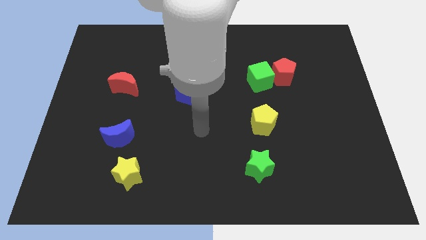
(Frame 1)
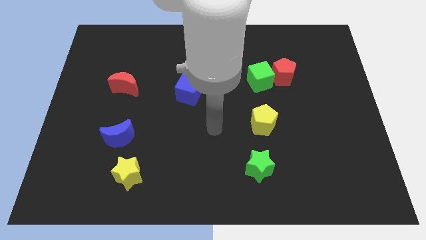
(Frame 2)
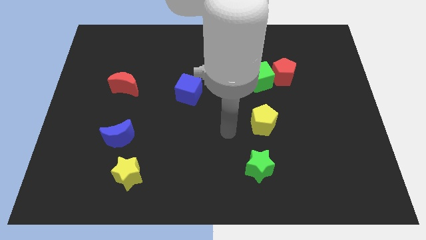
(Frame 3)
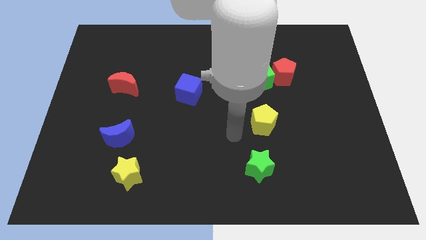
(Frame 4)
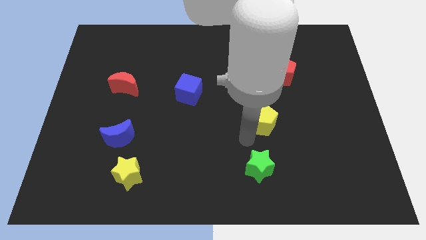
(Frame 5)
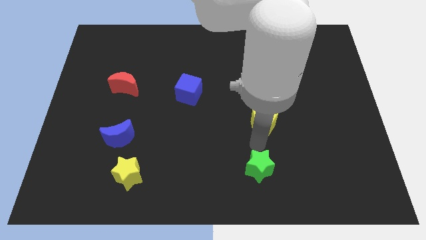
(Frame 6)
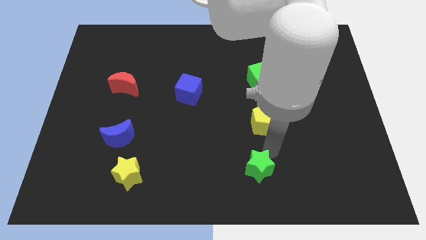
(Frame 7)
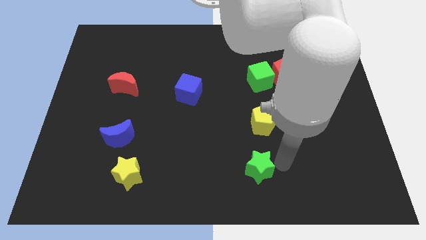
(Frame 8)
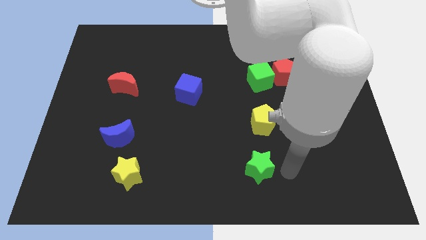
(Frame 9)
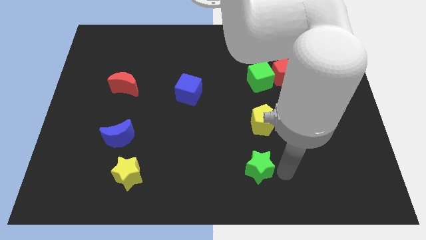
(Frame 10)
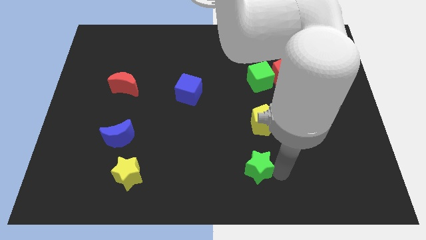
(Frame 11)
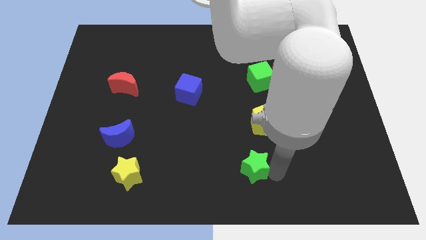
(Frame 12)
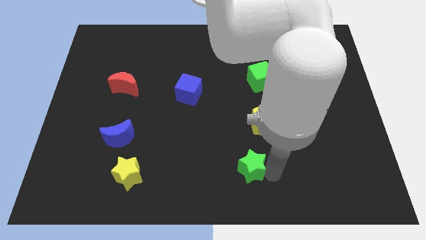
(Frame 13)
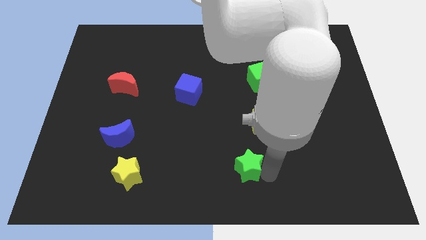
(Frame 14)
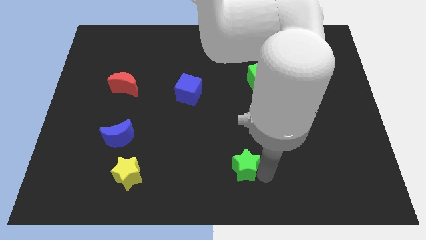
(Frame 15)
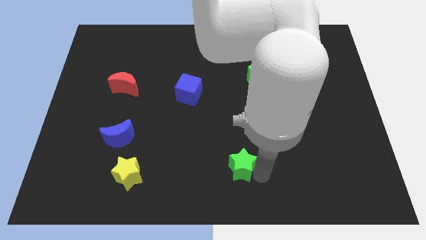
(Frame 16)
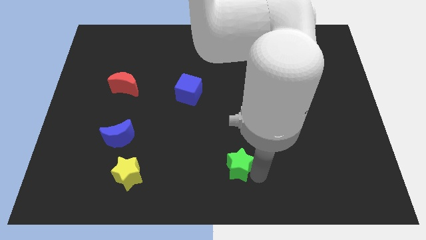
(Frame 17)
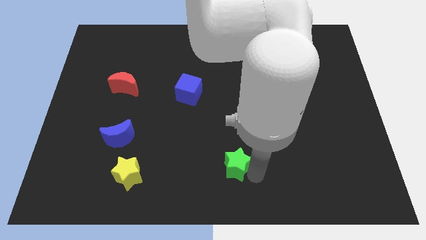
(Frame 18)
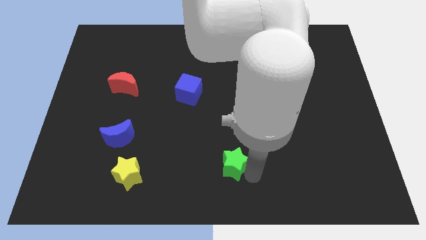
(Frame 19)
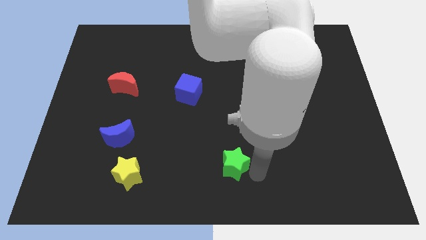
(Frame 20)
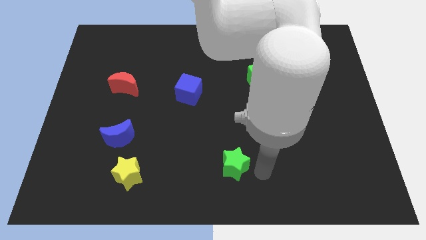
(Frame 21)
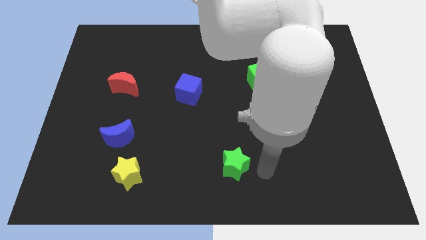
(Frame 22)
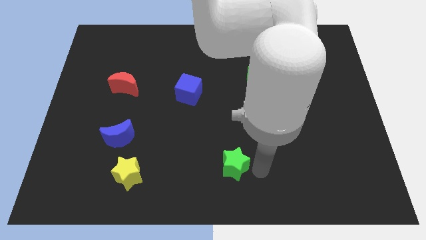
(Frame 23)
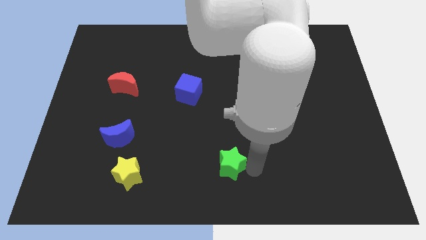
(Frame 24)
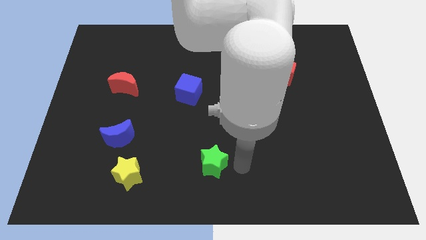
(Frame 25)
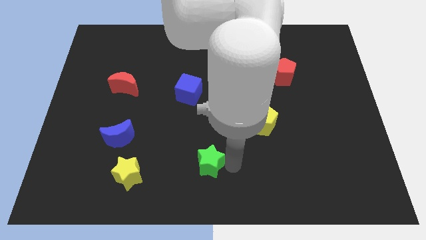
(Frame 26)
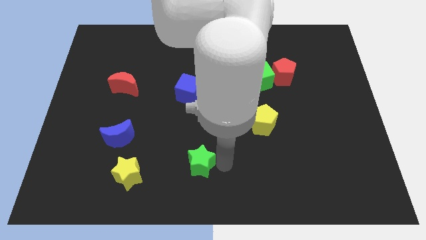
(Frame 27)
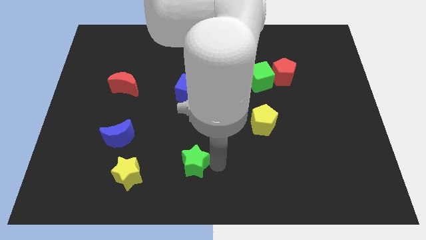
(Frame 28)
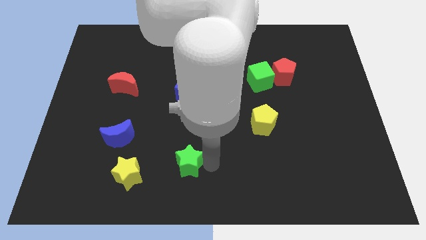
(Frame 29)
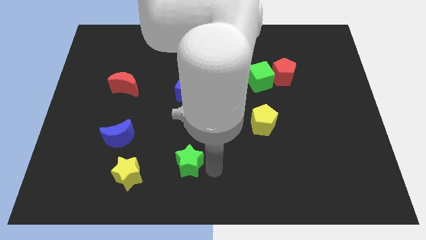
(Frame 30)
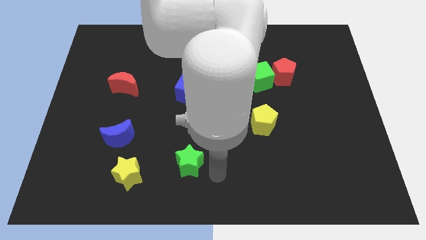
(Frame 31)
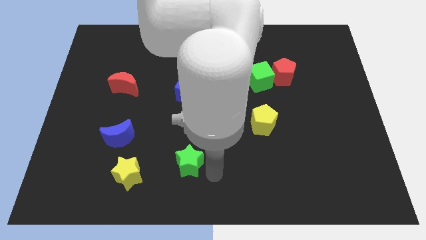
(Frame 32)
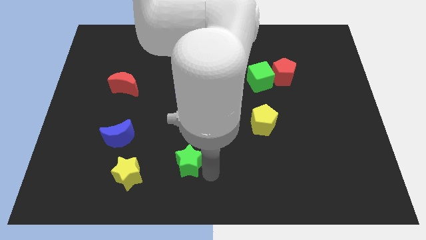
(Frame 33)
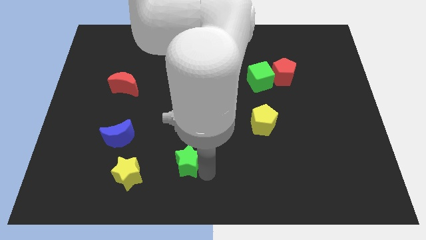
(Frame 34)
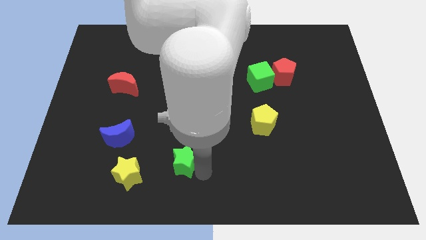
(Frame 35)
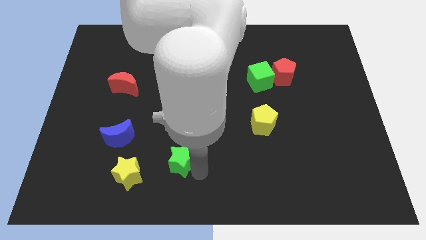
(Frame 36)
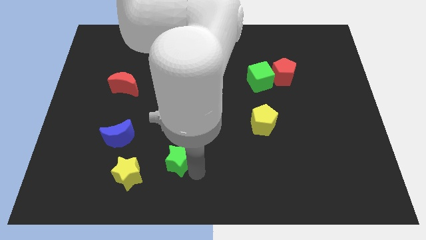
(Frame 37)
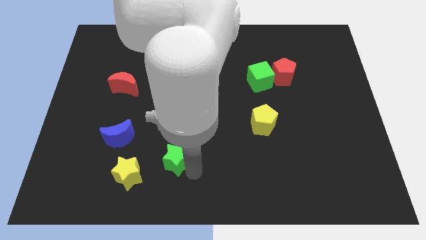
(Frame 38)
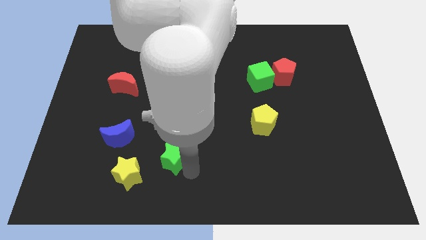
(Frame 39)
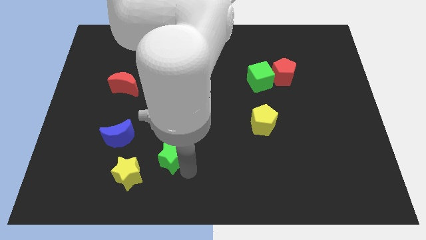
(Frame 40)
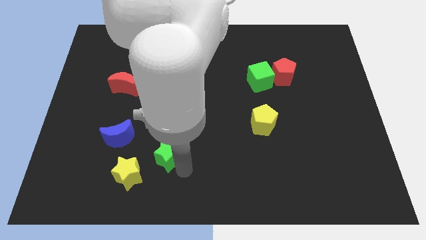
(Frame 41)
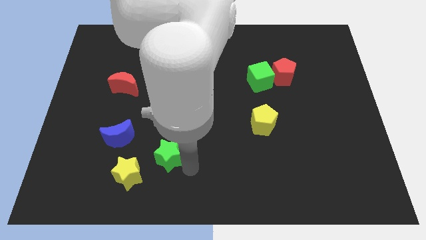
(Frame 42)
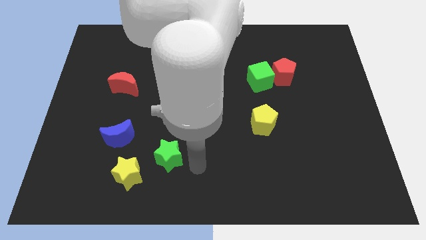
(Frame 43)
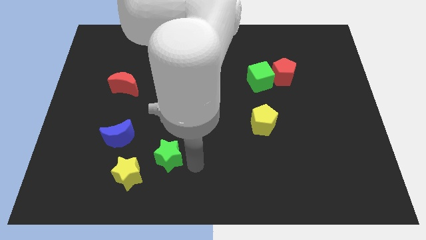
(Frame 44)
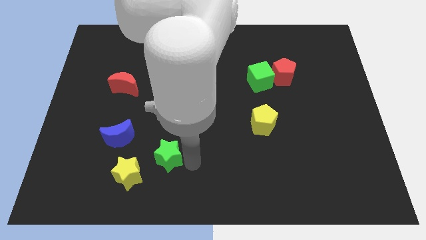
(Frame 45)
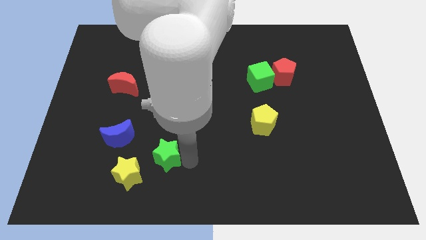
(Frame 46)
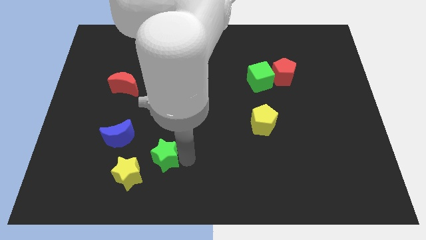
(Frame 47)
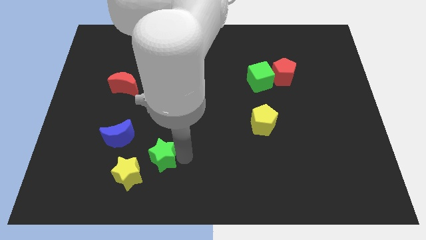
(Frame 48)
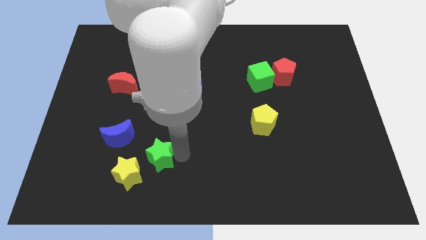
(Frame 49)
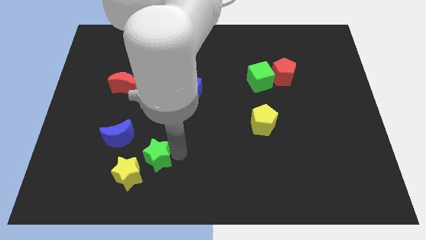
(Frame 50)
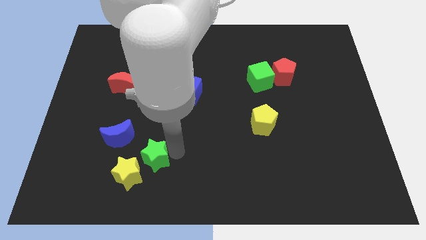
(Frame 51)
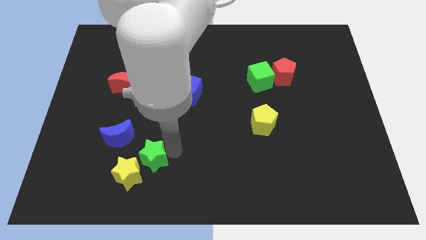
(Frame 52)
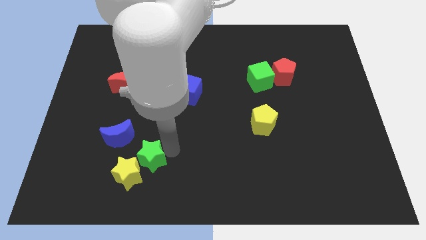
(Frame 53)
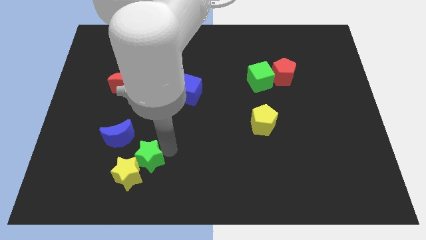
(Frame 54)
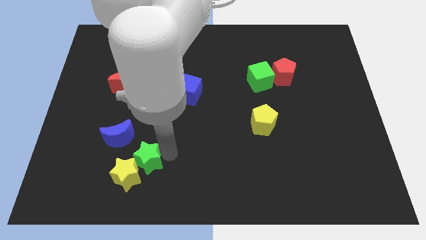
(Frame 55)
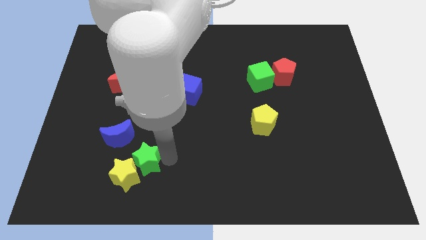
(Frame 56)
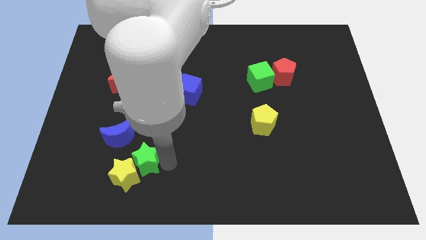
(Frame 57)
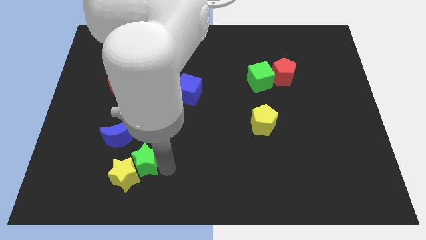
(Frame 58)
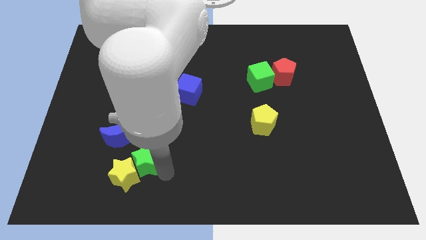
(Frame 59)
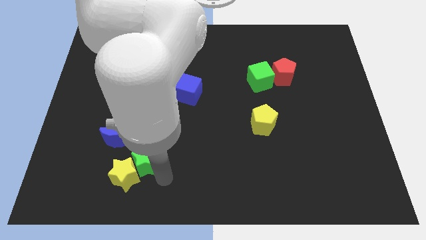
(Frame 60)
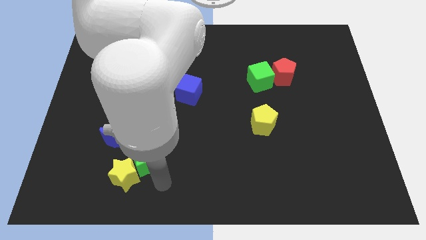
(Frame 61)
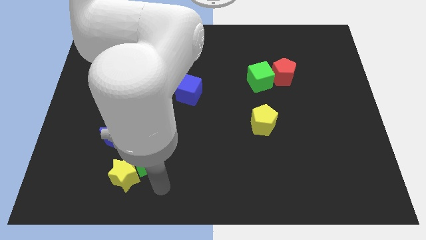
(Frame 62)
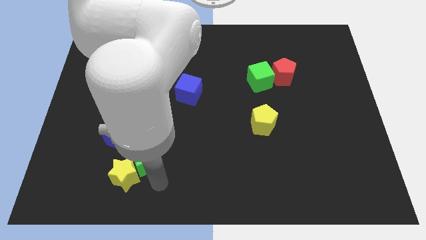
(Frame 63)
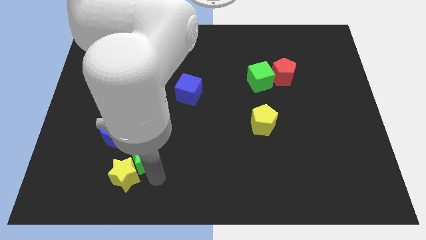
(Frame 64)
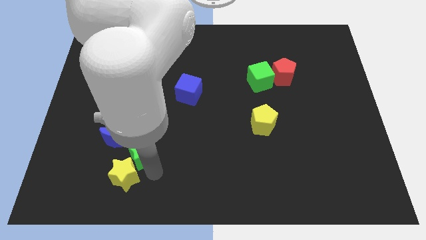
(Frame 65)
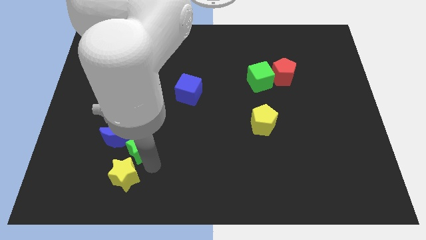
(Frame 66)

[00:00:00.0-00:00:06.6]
slide the green star close to the blue moon
